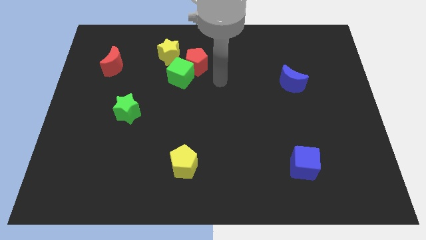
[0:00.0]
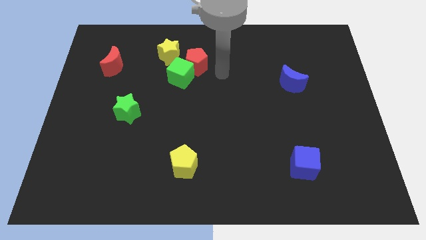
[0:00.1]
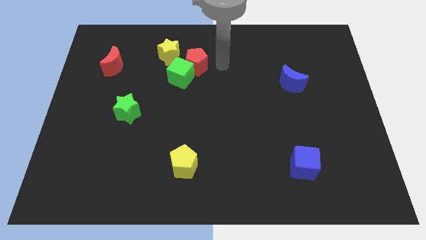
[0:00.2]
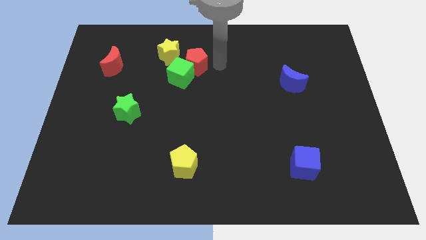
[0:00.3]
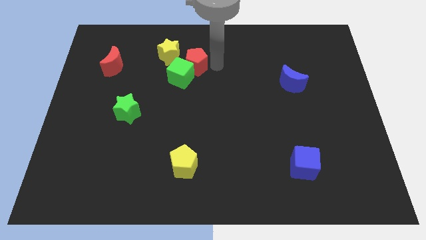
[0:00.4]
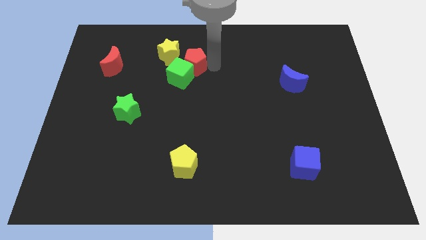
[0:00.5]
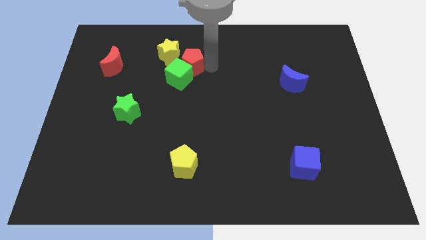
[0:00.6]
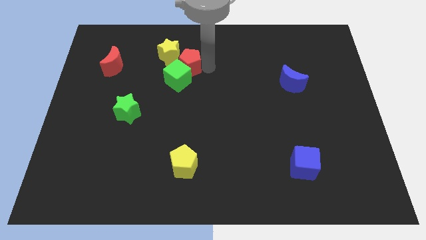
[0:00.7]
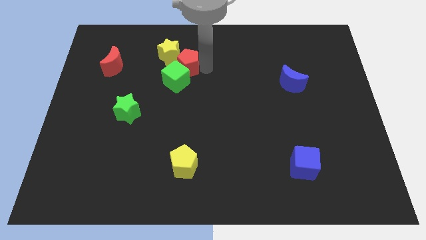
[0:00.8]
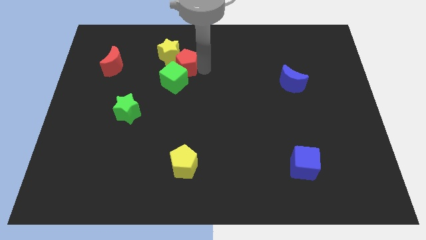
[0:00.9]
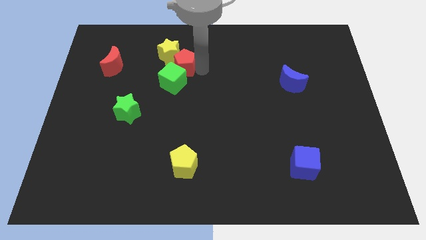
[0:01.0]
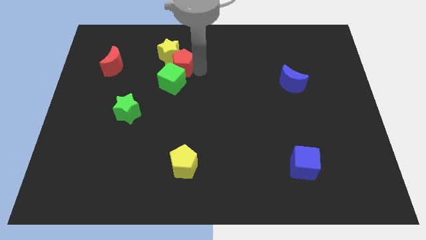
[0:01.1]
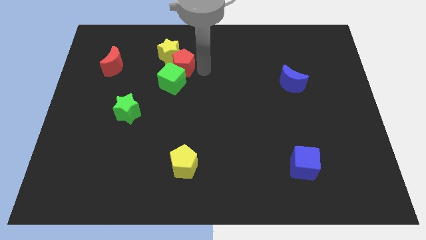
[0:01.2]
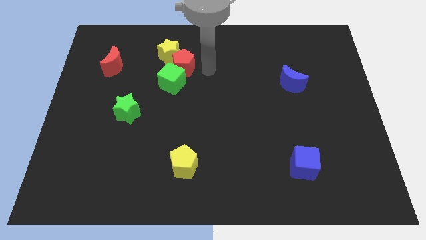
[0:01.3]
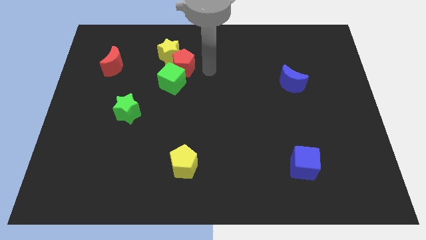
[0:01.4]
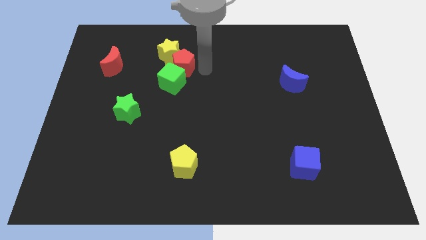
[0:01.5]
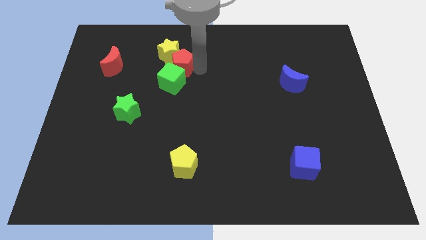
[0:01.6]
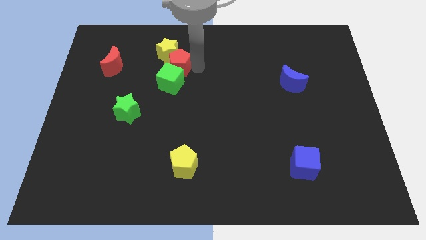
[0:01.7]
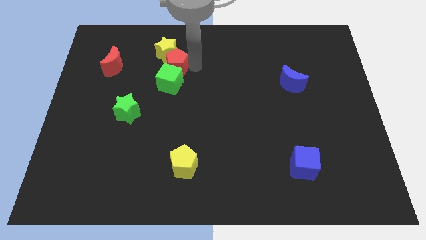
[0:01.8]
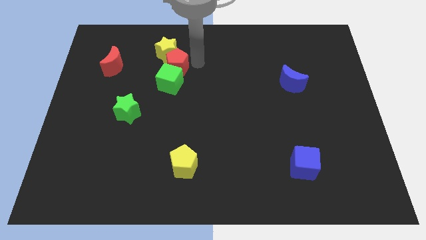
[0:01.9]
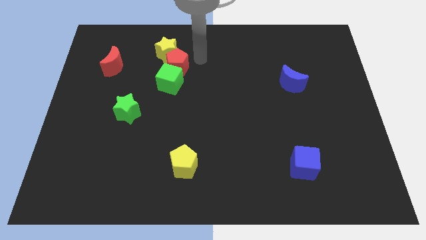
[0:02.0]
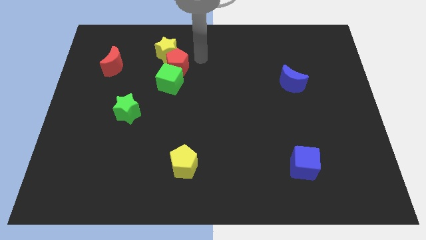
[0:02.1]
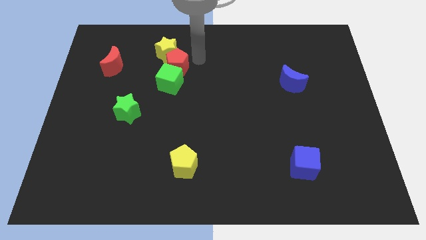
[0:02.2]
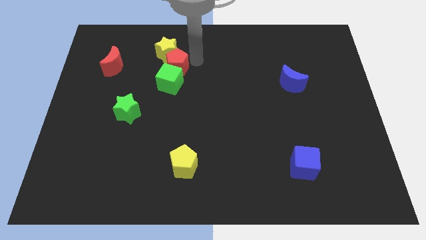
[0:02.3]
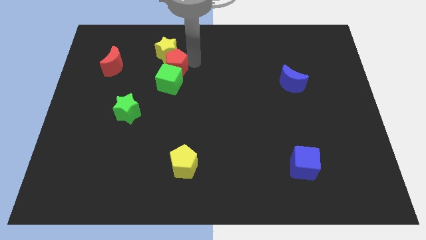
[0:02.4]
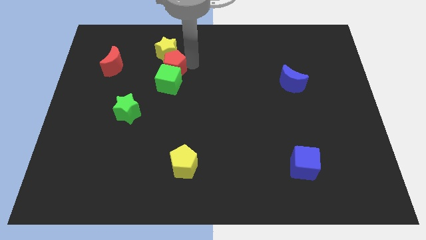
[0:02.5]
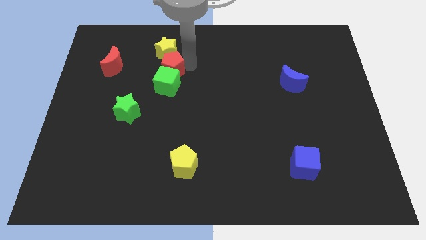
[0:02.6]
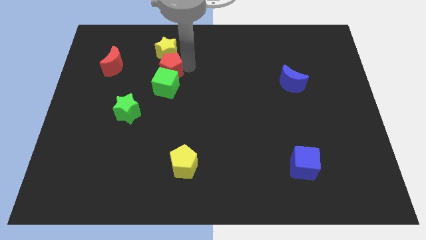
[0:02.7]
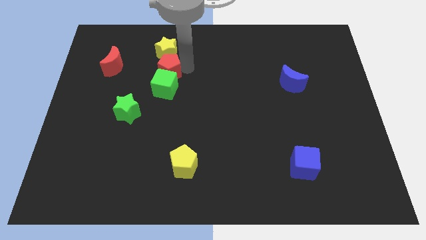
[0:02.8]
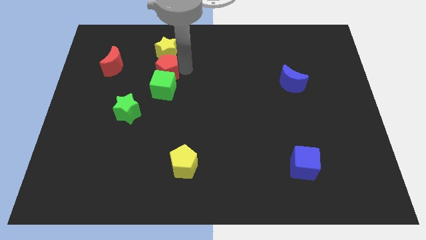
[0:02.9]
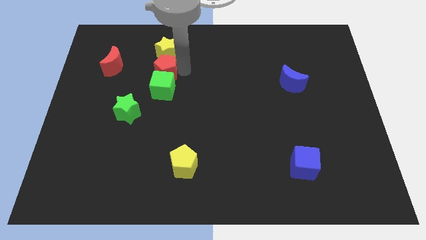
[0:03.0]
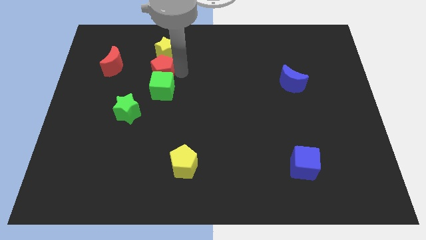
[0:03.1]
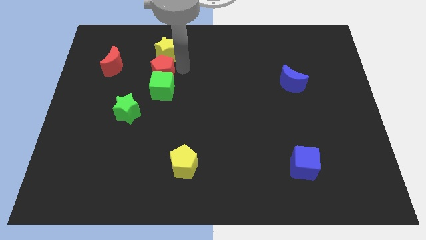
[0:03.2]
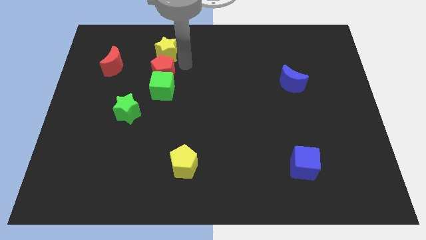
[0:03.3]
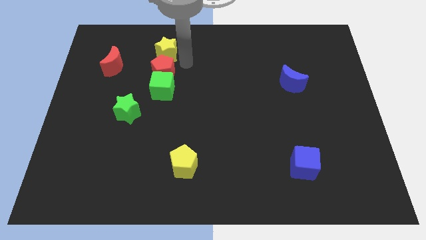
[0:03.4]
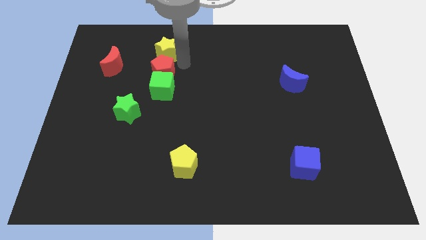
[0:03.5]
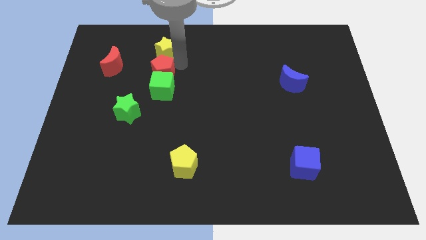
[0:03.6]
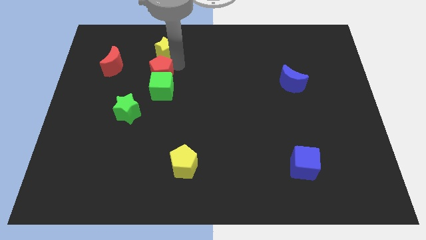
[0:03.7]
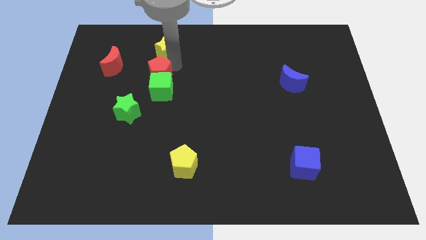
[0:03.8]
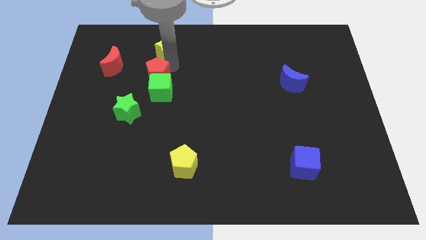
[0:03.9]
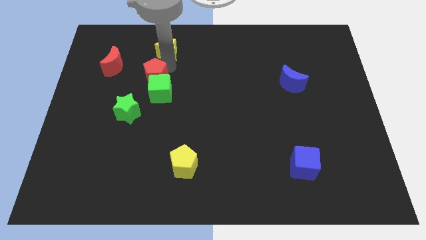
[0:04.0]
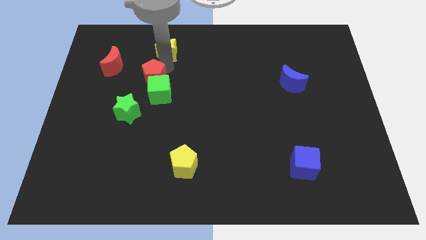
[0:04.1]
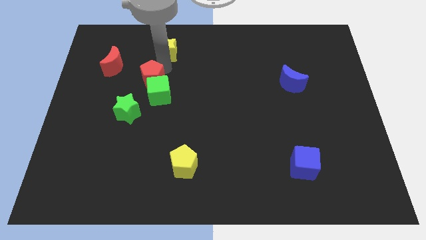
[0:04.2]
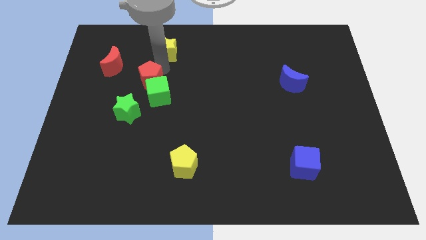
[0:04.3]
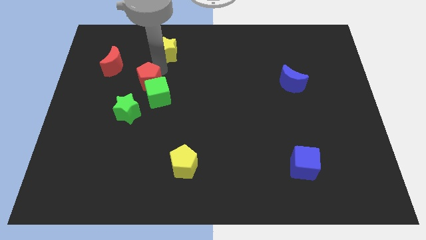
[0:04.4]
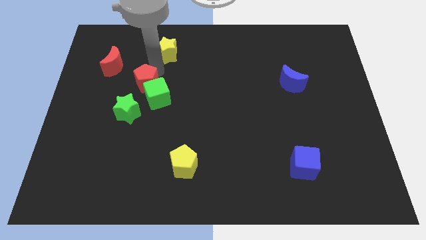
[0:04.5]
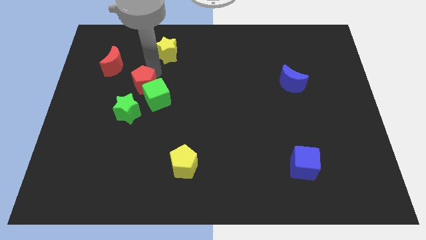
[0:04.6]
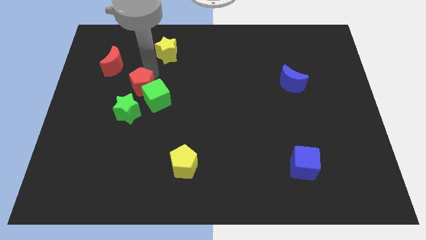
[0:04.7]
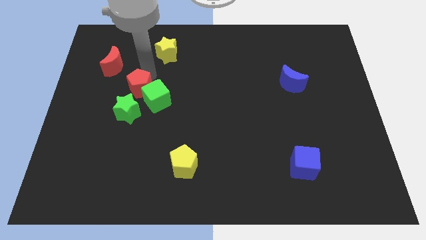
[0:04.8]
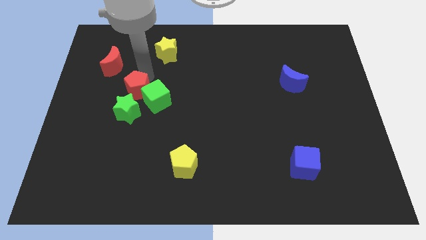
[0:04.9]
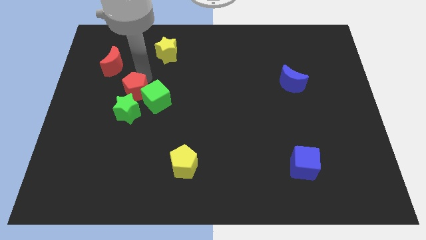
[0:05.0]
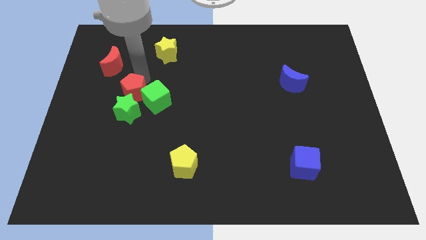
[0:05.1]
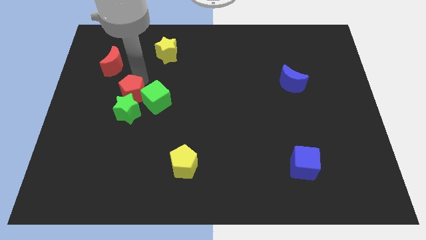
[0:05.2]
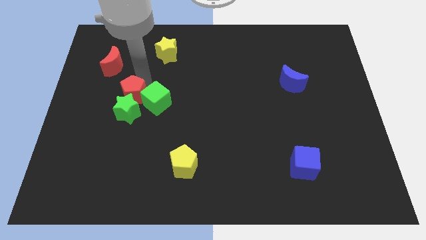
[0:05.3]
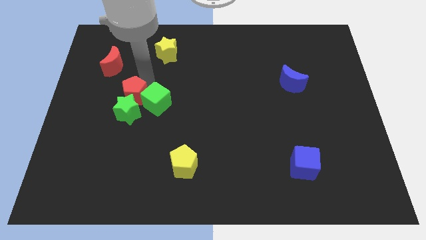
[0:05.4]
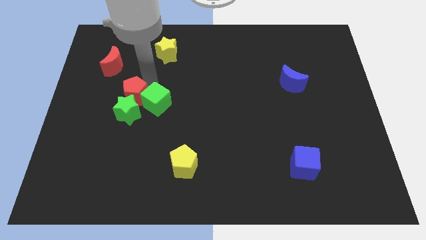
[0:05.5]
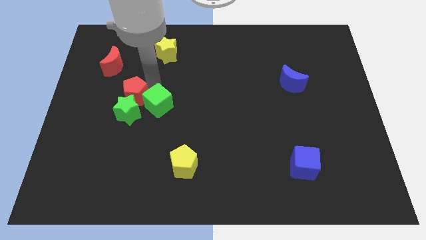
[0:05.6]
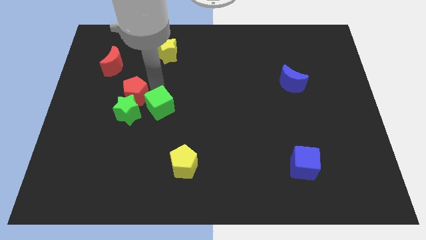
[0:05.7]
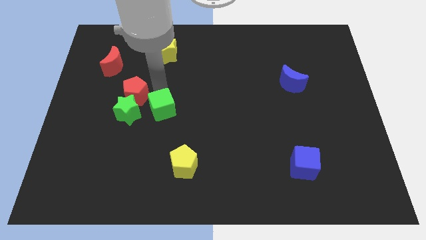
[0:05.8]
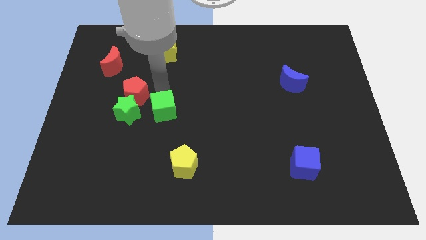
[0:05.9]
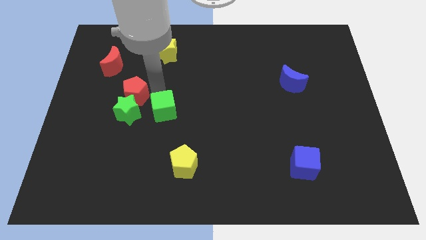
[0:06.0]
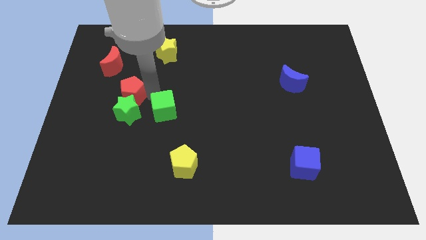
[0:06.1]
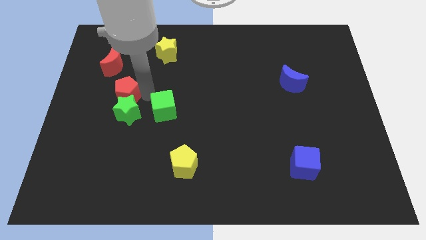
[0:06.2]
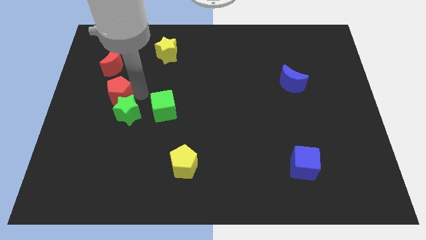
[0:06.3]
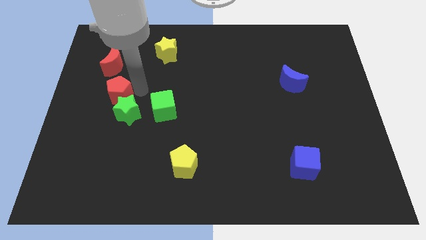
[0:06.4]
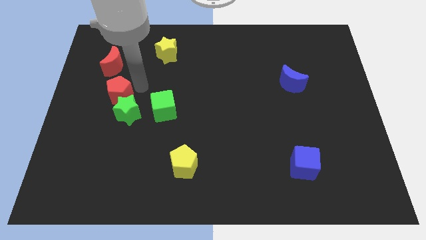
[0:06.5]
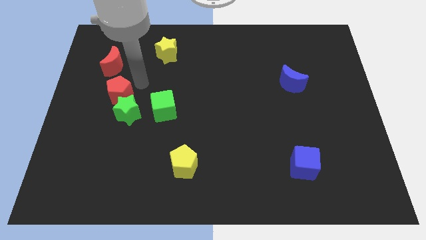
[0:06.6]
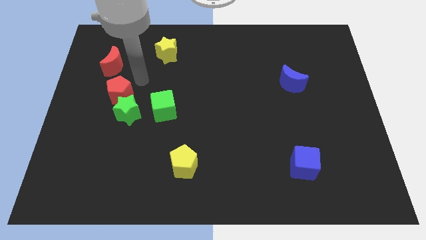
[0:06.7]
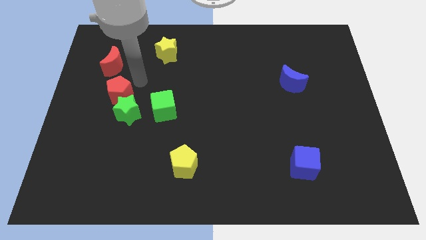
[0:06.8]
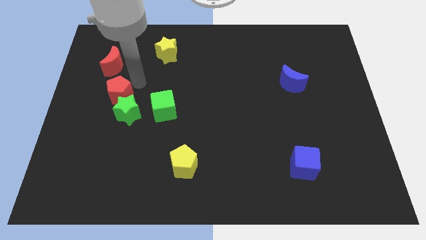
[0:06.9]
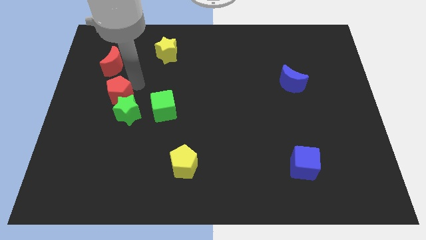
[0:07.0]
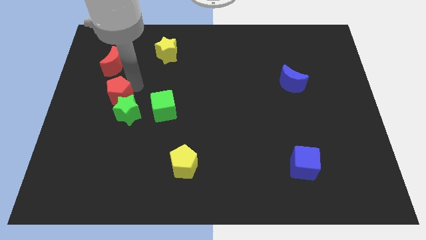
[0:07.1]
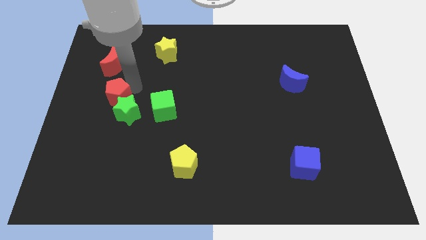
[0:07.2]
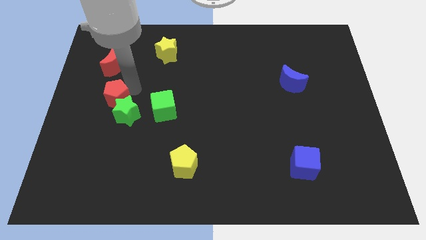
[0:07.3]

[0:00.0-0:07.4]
slide the red pentagon downwards and then to the left

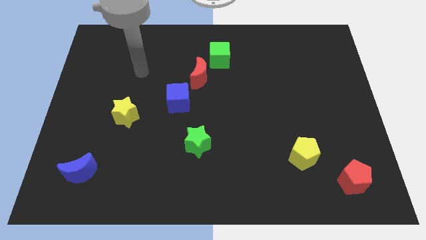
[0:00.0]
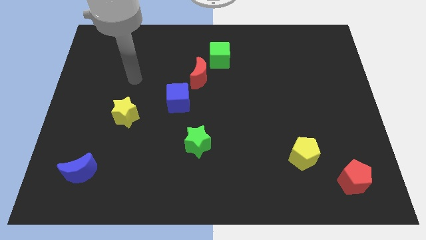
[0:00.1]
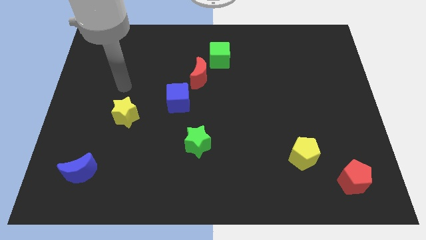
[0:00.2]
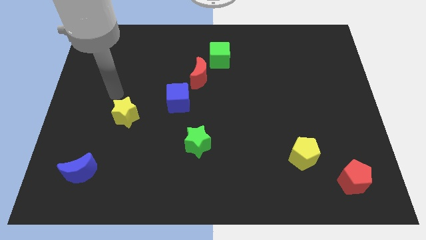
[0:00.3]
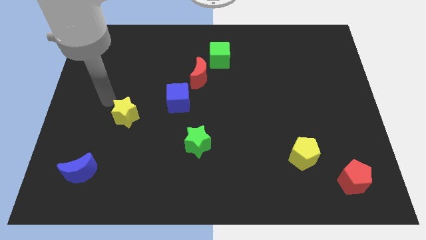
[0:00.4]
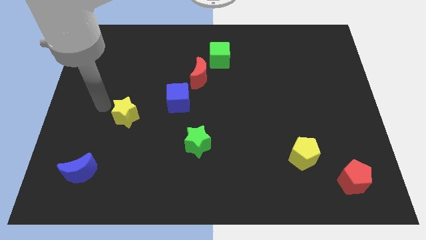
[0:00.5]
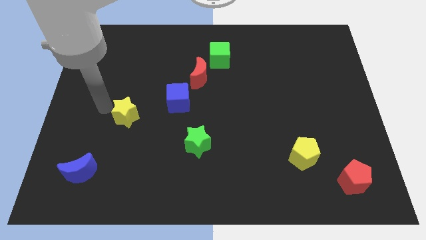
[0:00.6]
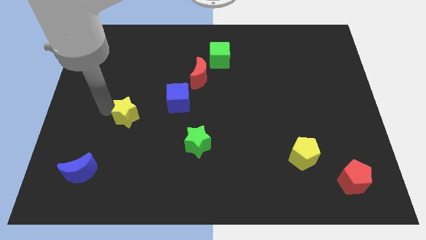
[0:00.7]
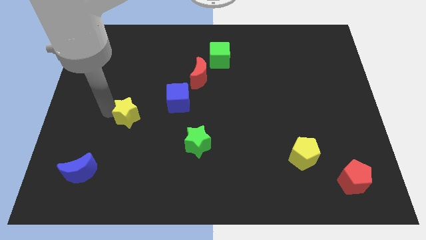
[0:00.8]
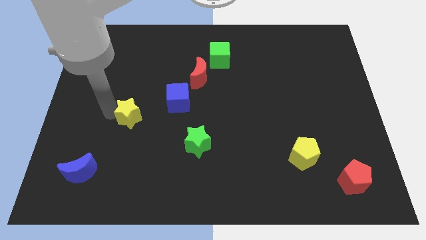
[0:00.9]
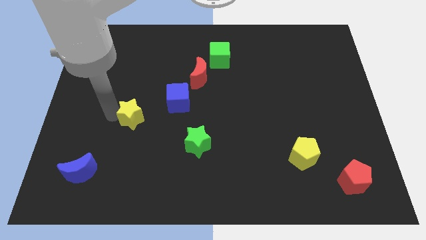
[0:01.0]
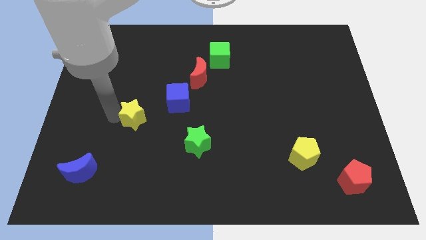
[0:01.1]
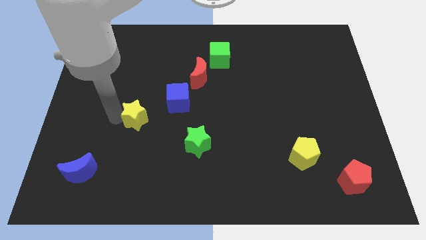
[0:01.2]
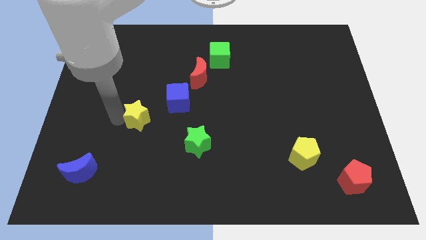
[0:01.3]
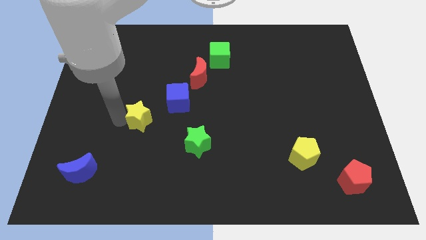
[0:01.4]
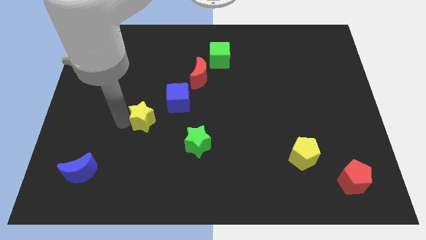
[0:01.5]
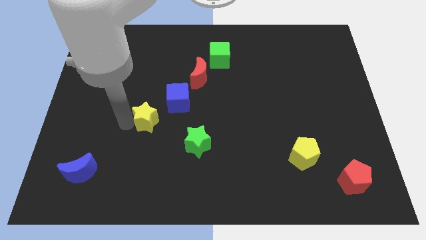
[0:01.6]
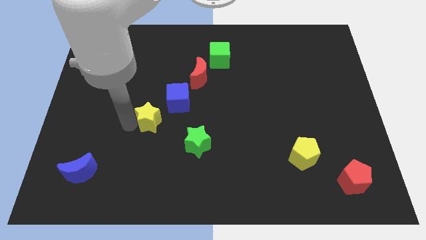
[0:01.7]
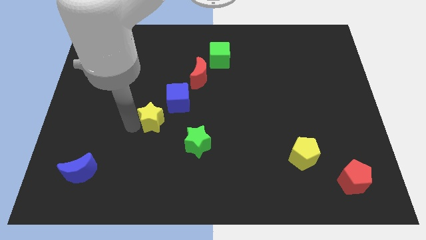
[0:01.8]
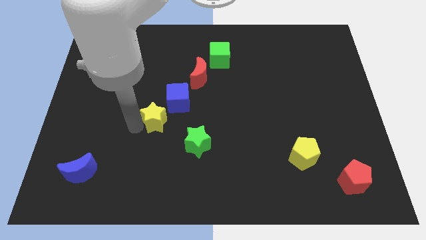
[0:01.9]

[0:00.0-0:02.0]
slightly push the yellow star right
